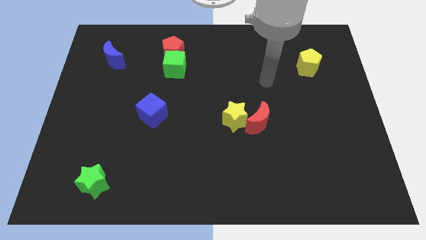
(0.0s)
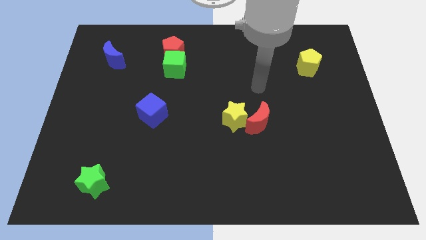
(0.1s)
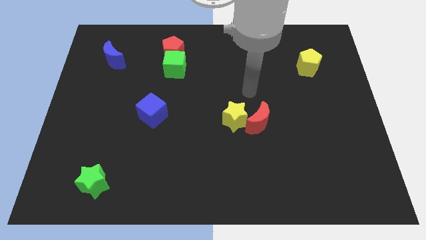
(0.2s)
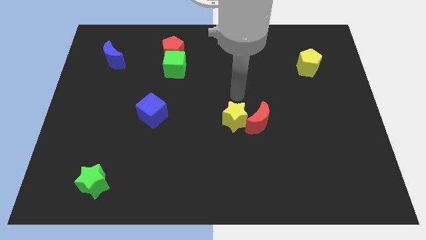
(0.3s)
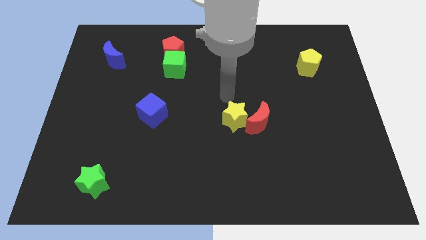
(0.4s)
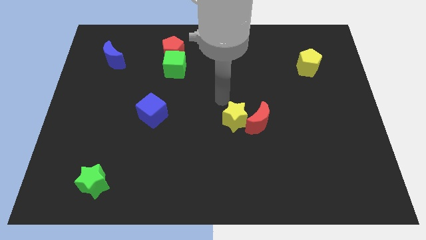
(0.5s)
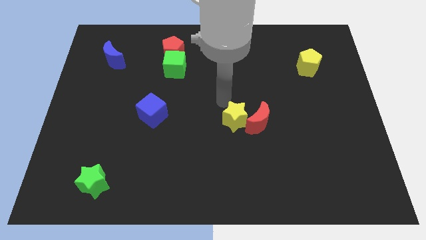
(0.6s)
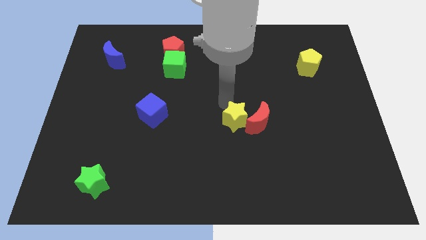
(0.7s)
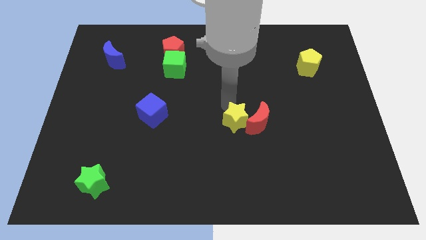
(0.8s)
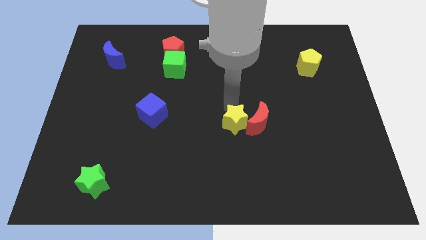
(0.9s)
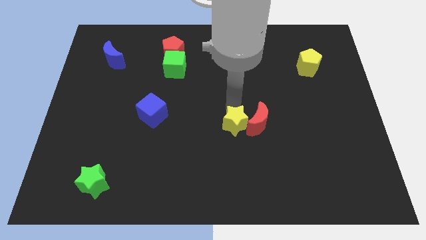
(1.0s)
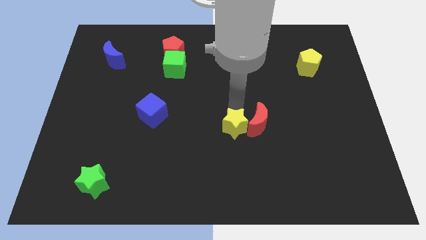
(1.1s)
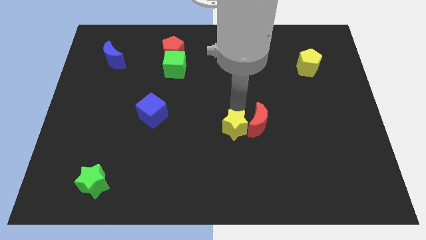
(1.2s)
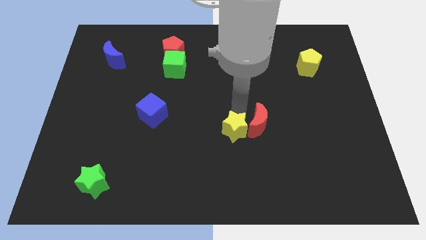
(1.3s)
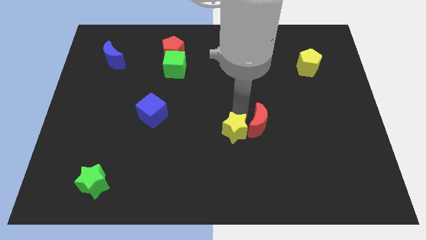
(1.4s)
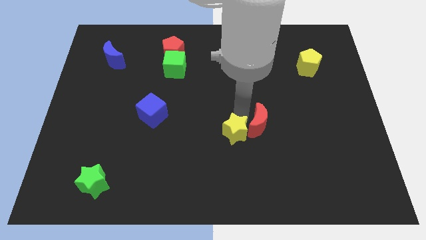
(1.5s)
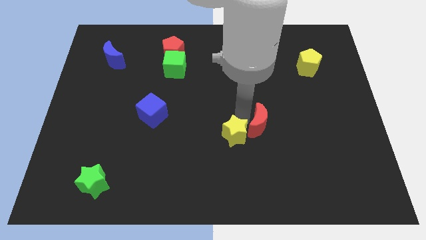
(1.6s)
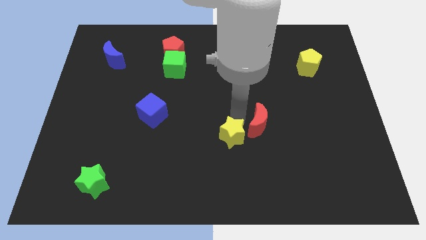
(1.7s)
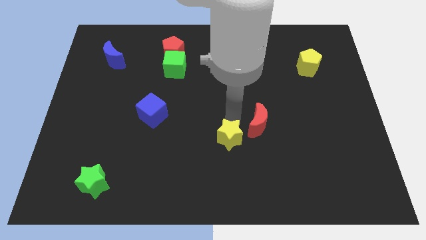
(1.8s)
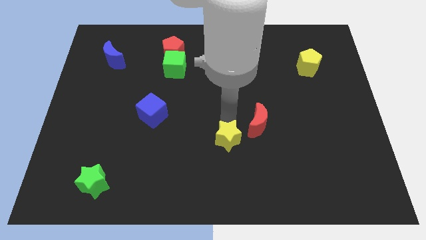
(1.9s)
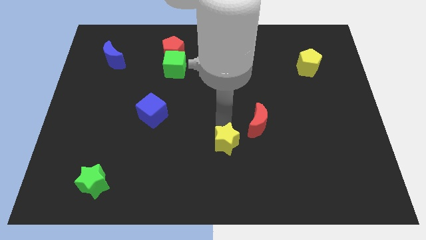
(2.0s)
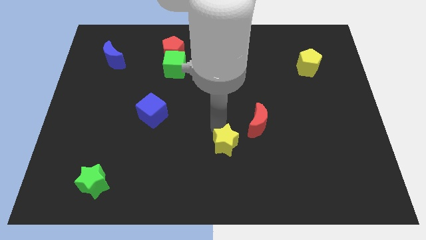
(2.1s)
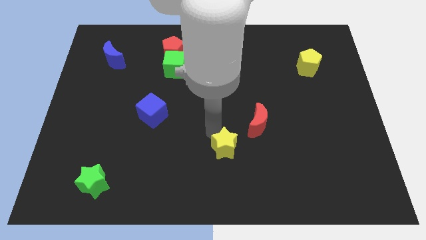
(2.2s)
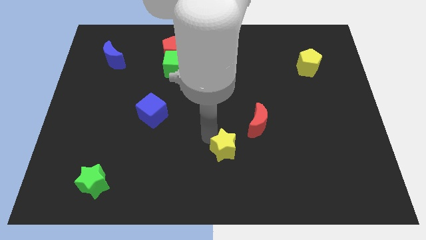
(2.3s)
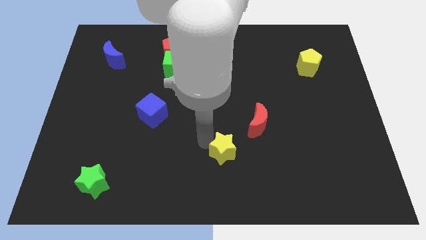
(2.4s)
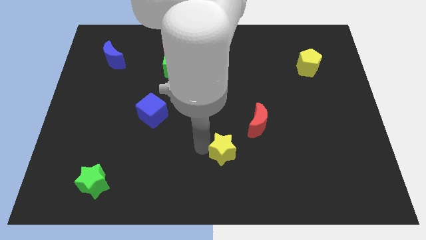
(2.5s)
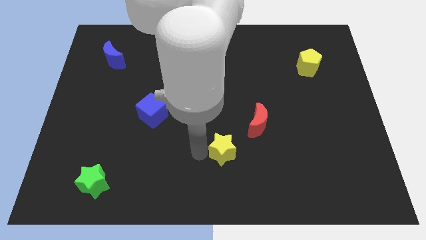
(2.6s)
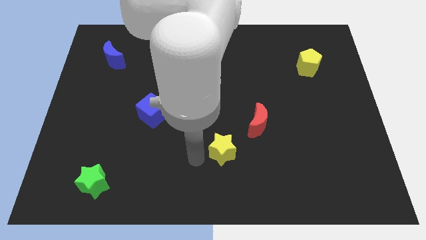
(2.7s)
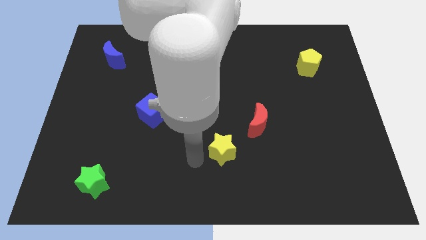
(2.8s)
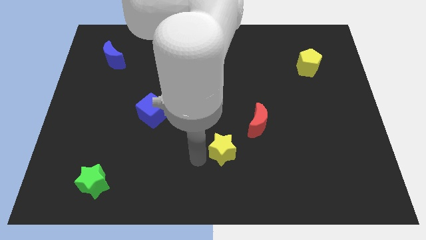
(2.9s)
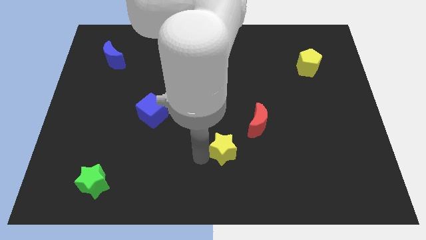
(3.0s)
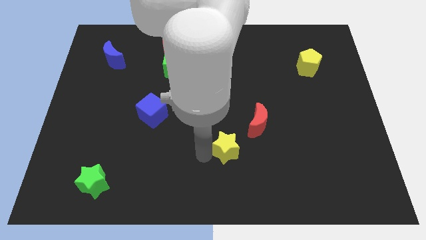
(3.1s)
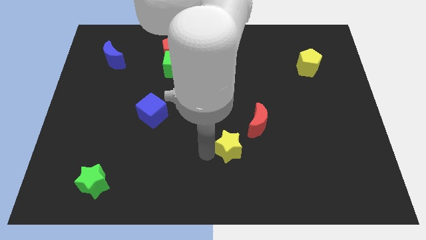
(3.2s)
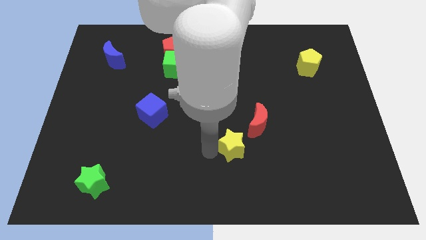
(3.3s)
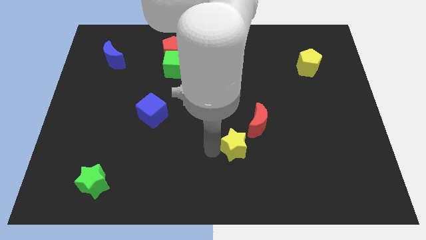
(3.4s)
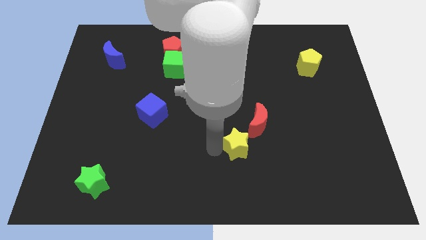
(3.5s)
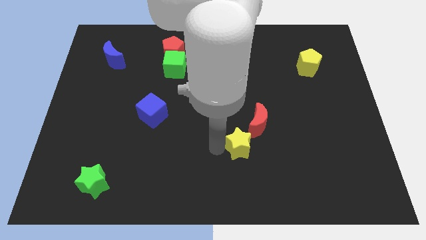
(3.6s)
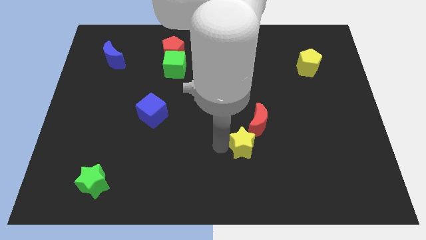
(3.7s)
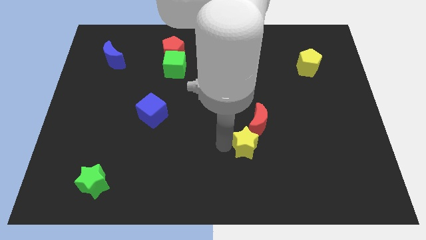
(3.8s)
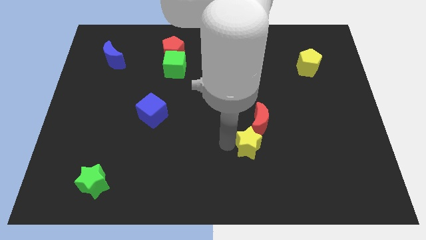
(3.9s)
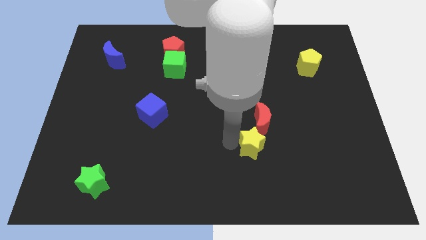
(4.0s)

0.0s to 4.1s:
slide the yellow star a little bit diagonally down and to the right

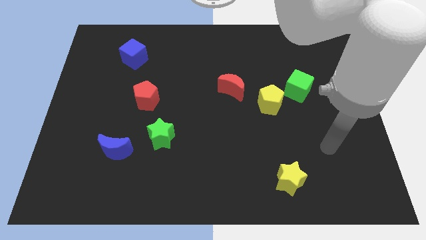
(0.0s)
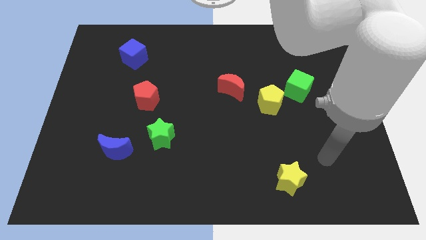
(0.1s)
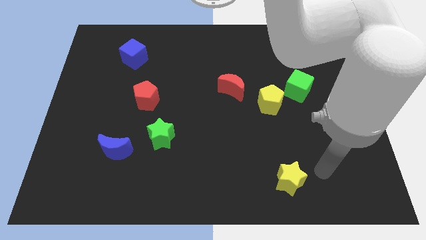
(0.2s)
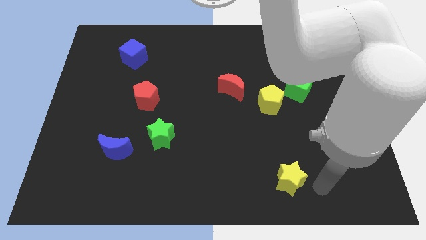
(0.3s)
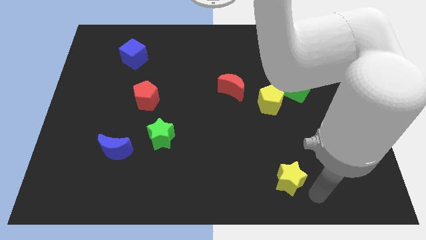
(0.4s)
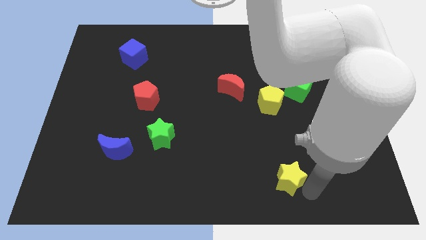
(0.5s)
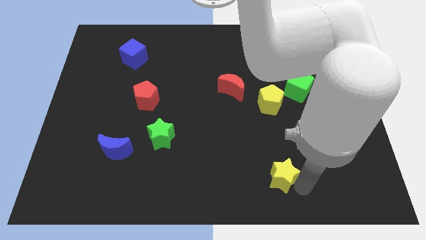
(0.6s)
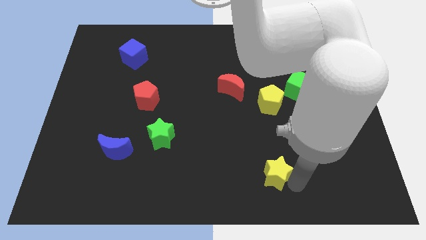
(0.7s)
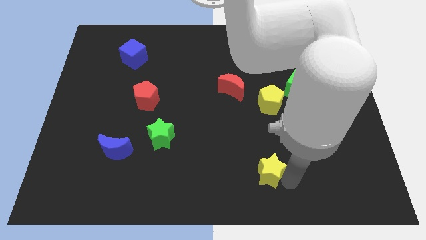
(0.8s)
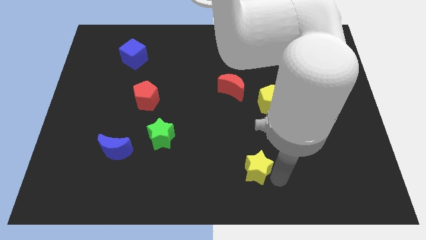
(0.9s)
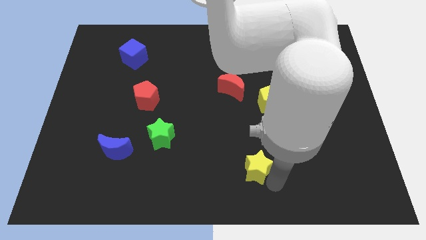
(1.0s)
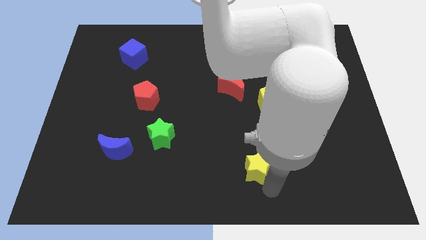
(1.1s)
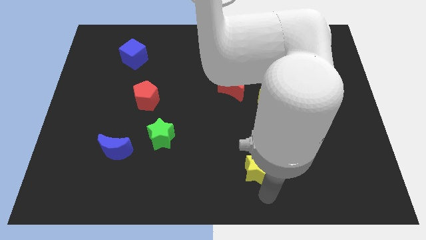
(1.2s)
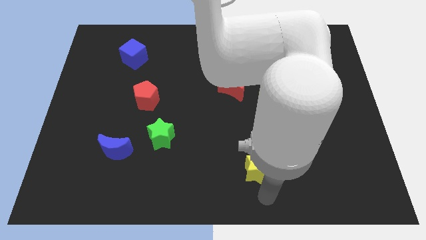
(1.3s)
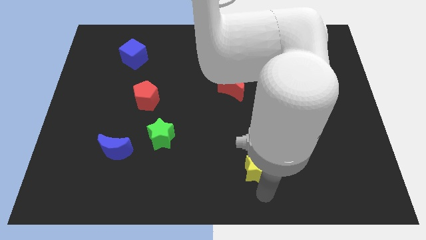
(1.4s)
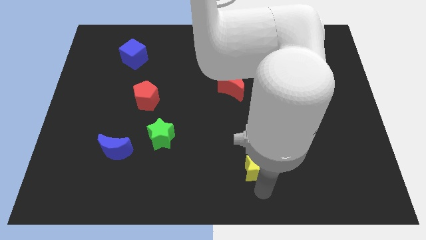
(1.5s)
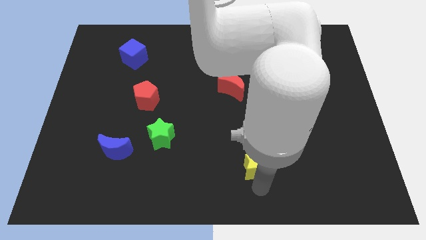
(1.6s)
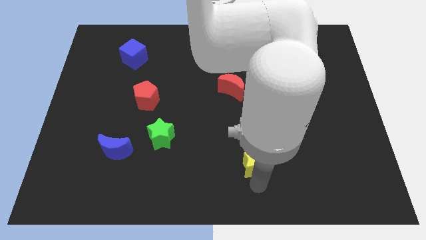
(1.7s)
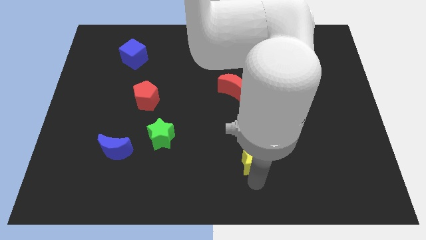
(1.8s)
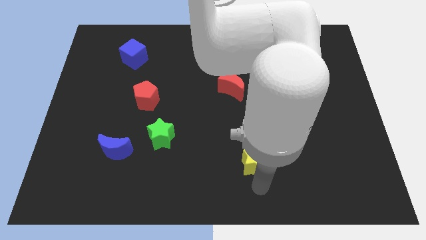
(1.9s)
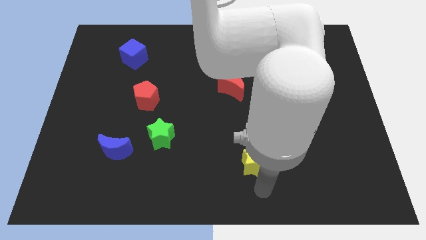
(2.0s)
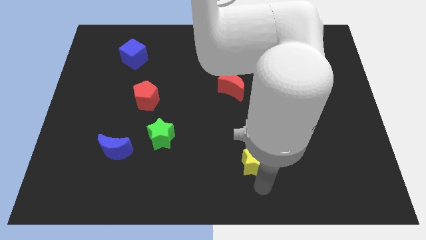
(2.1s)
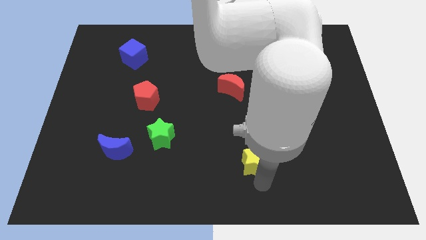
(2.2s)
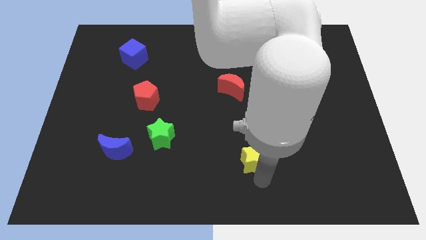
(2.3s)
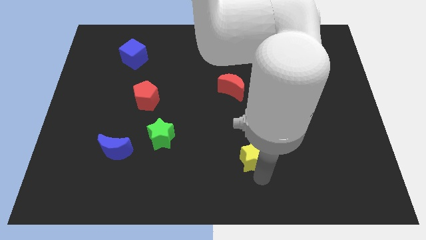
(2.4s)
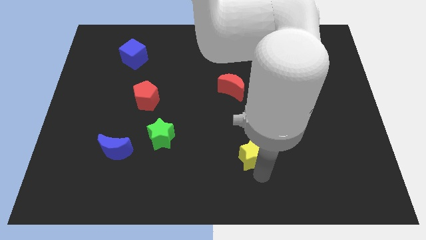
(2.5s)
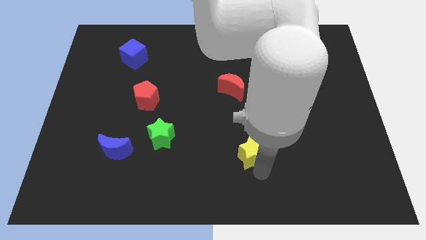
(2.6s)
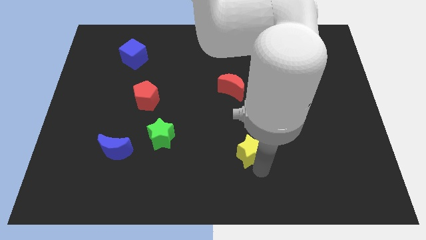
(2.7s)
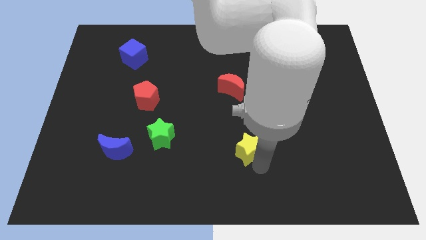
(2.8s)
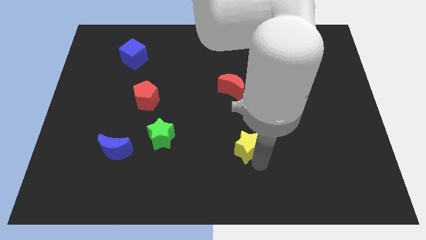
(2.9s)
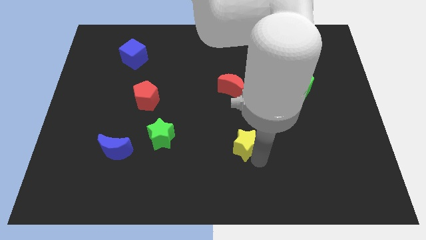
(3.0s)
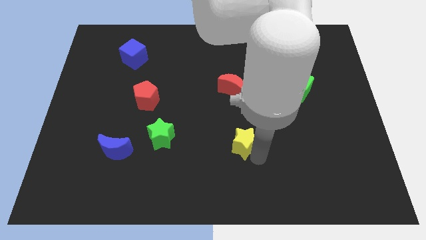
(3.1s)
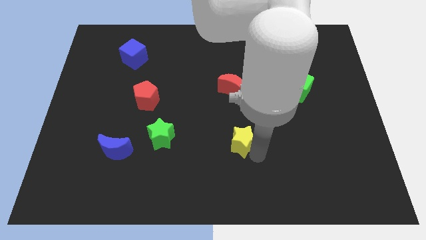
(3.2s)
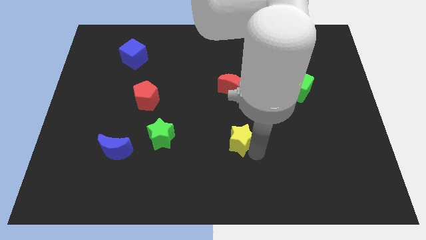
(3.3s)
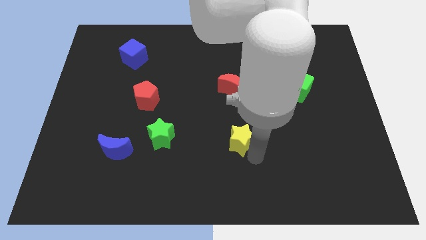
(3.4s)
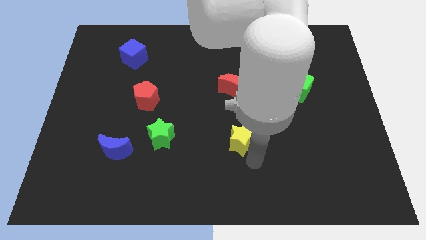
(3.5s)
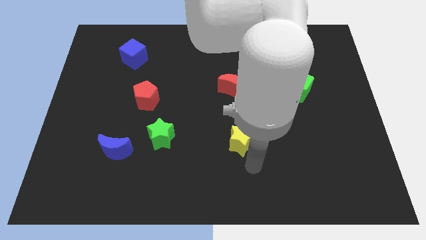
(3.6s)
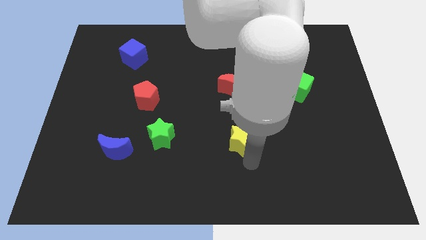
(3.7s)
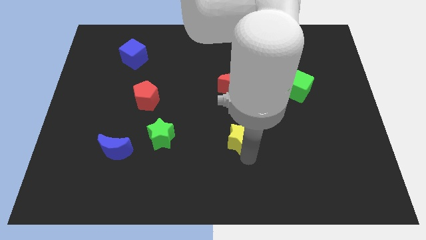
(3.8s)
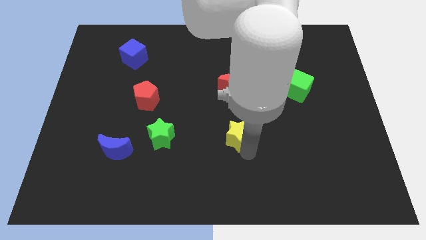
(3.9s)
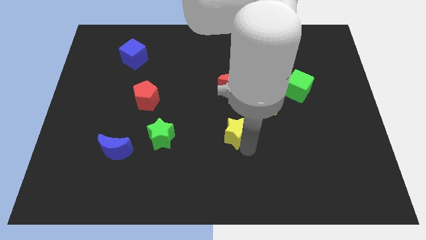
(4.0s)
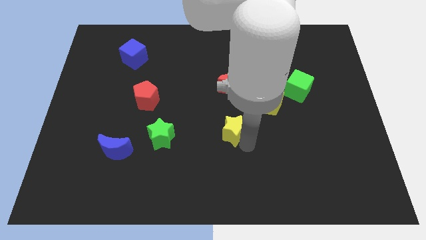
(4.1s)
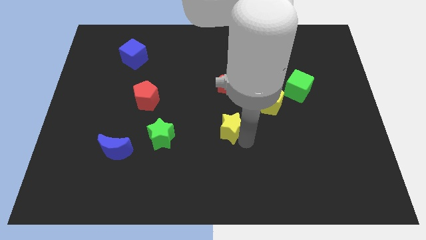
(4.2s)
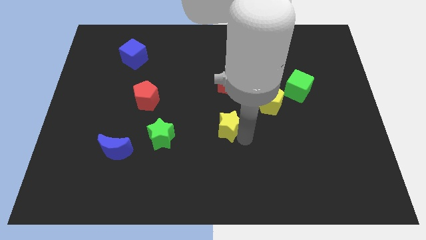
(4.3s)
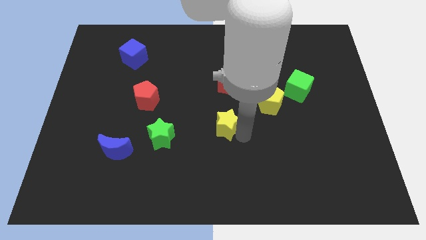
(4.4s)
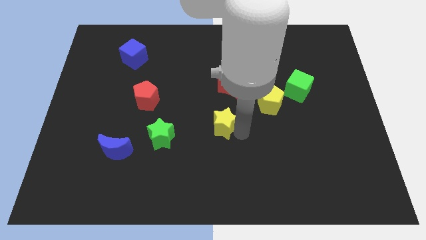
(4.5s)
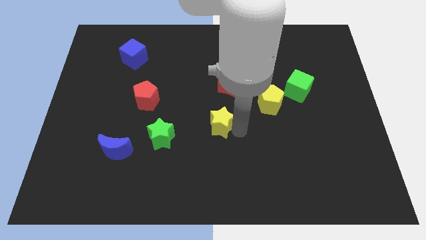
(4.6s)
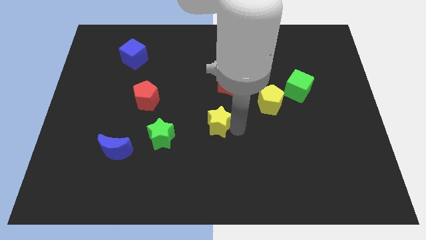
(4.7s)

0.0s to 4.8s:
slide the yellow star upwards and then left
